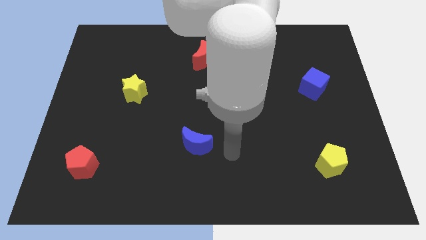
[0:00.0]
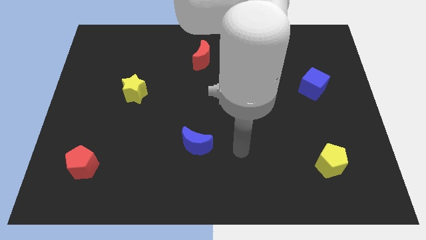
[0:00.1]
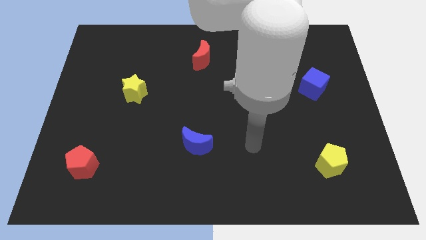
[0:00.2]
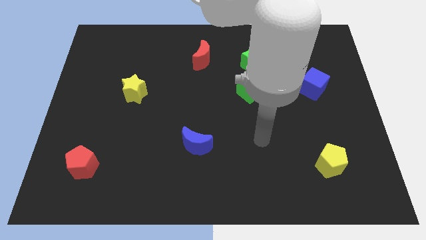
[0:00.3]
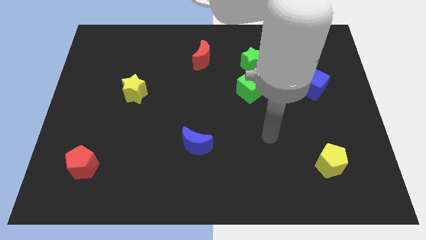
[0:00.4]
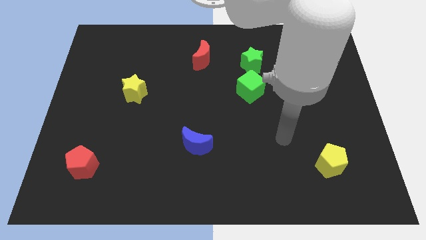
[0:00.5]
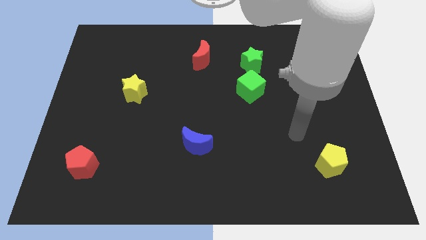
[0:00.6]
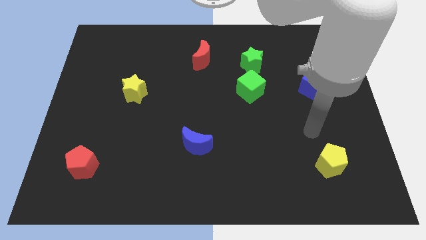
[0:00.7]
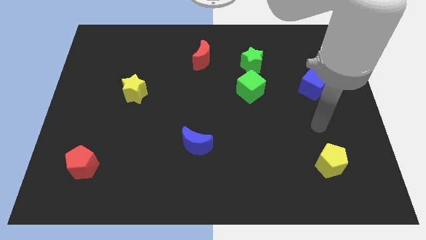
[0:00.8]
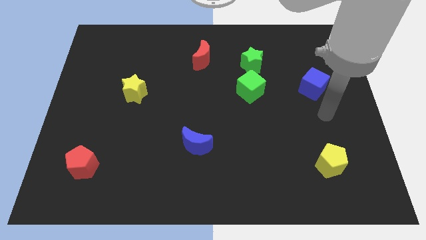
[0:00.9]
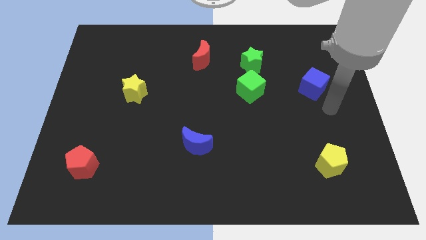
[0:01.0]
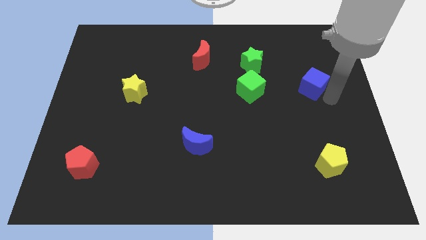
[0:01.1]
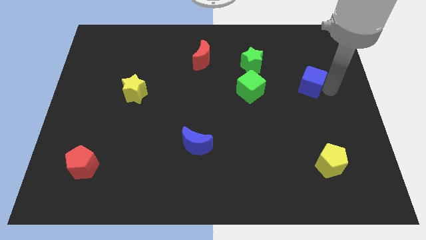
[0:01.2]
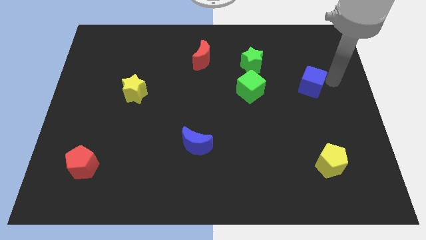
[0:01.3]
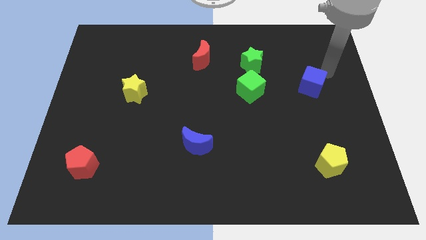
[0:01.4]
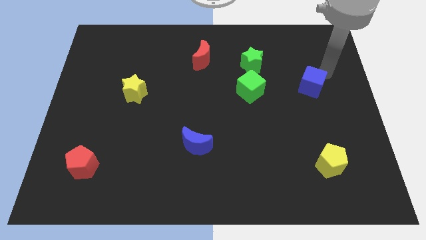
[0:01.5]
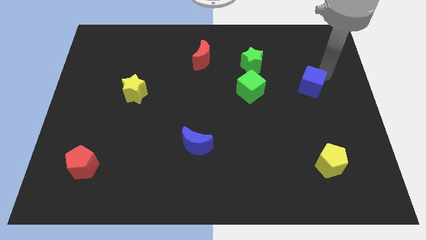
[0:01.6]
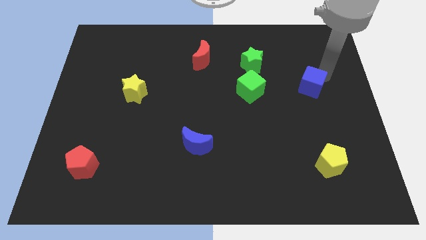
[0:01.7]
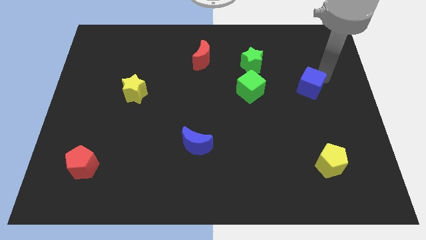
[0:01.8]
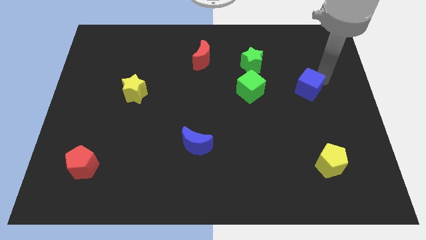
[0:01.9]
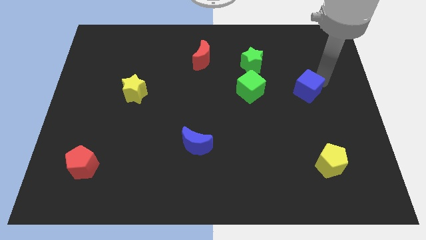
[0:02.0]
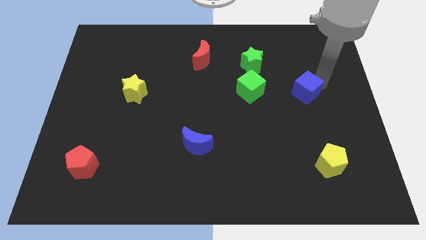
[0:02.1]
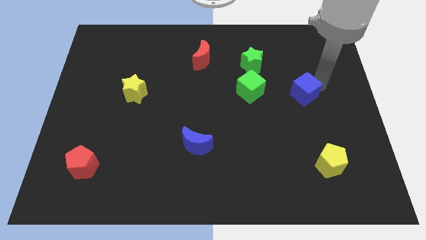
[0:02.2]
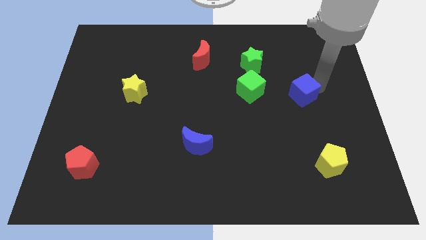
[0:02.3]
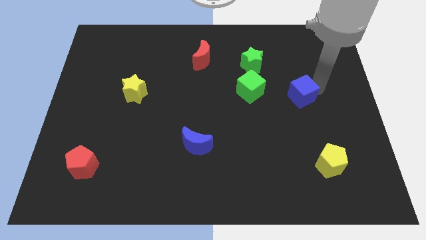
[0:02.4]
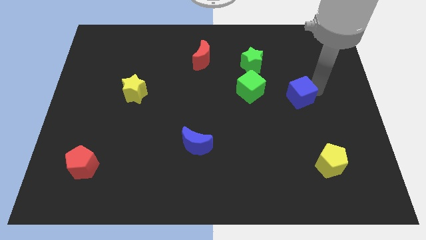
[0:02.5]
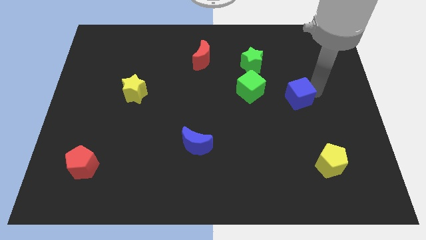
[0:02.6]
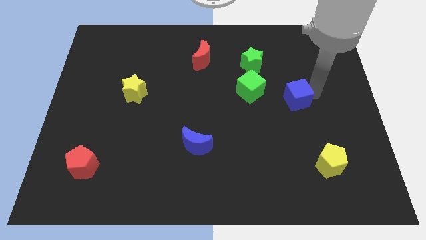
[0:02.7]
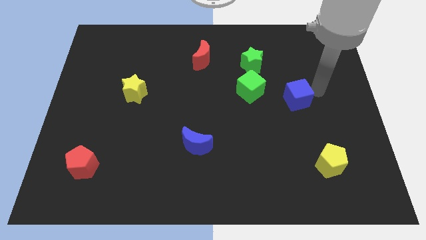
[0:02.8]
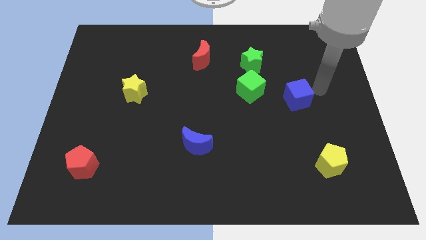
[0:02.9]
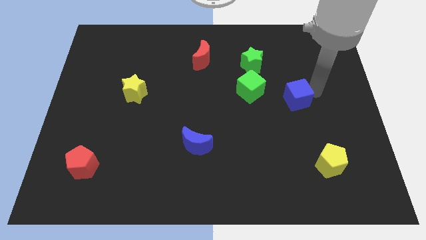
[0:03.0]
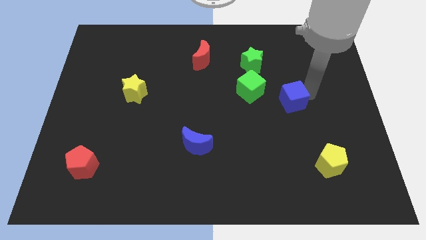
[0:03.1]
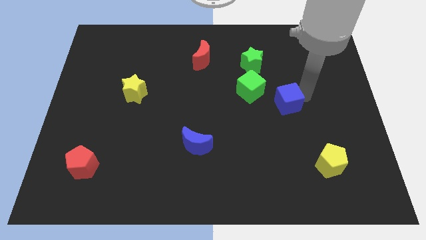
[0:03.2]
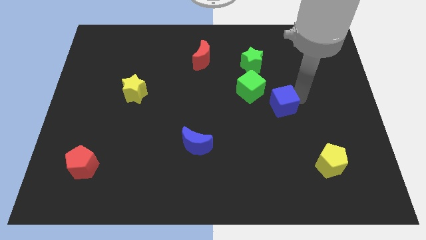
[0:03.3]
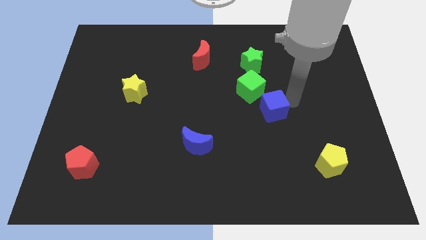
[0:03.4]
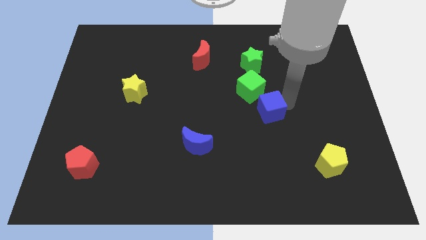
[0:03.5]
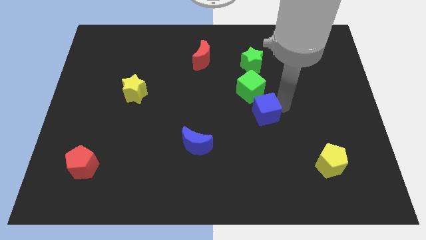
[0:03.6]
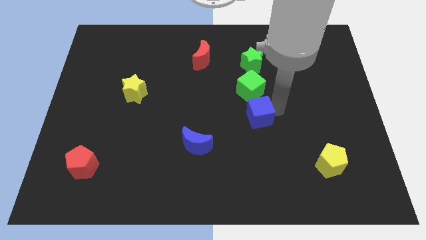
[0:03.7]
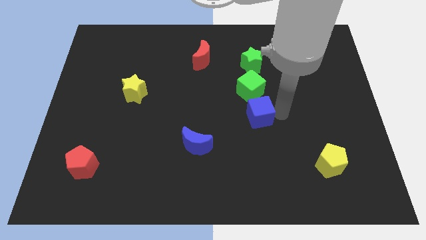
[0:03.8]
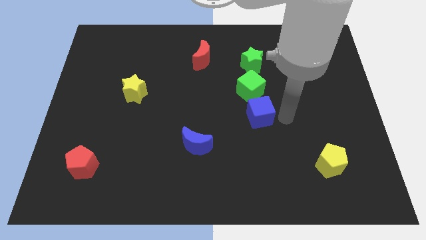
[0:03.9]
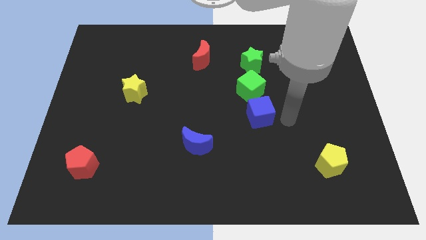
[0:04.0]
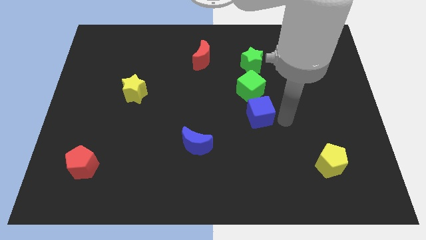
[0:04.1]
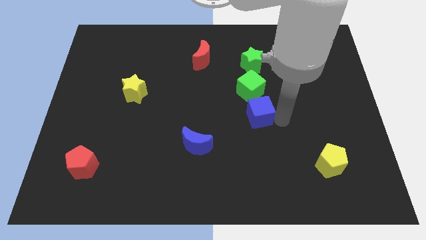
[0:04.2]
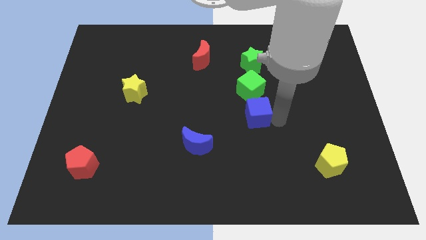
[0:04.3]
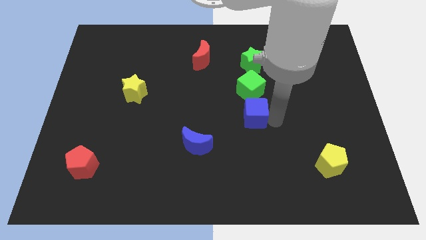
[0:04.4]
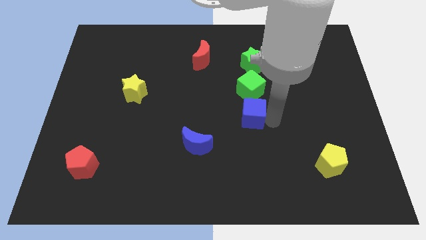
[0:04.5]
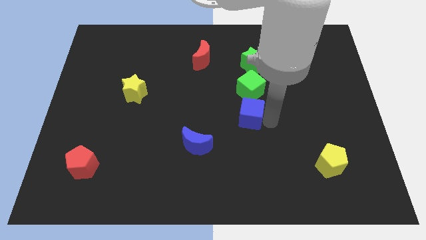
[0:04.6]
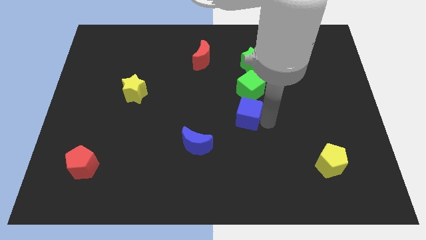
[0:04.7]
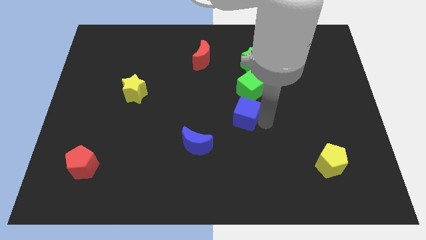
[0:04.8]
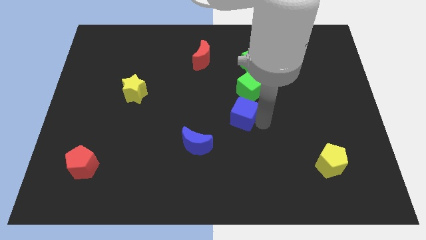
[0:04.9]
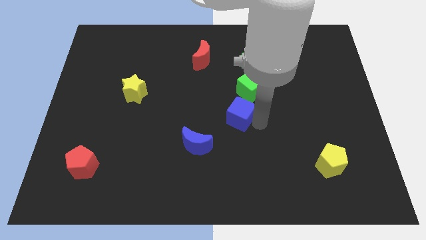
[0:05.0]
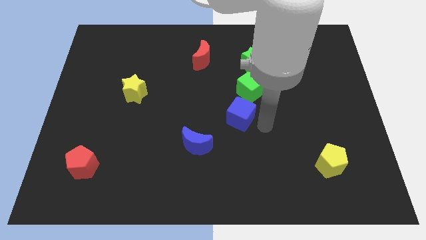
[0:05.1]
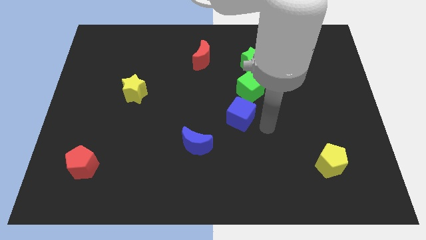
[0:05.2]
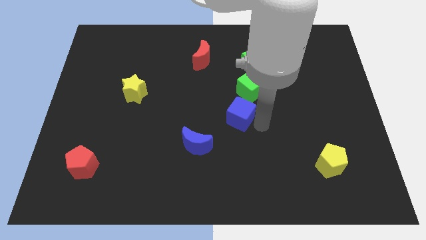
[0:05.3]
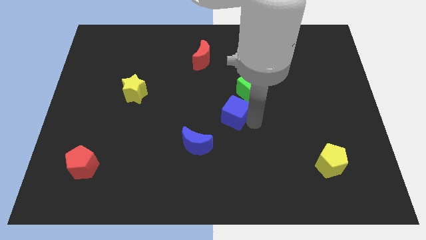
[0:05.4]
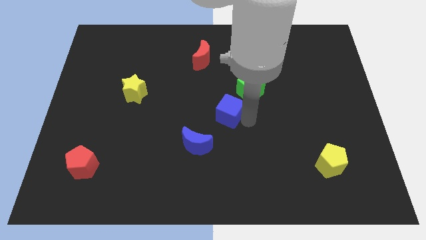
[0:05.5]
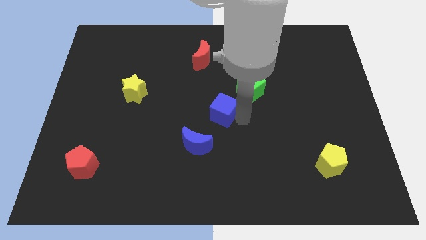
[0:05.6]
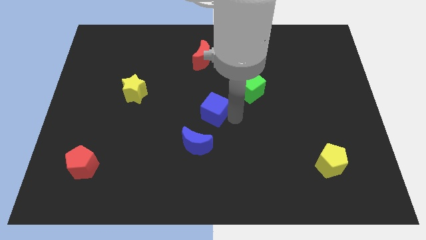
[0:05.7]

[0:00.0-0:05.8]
move the blue cube to the left

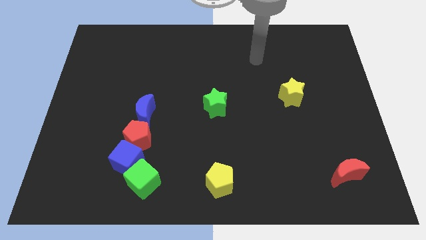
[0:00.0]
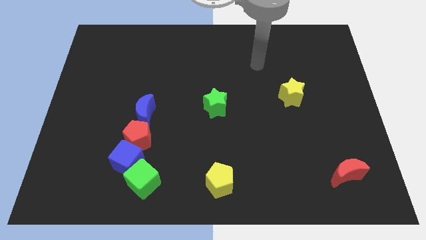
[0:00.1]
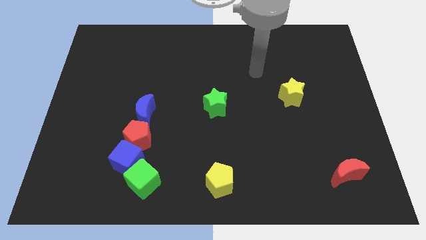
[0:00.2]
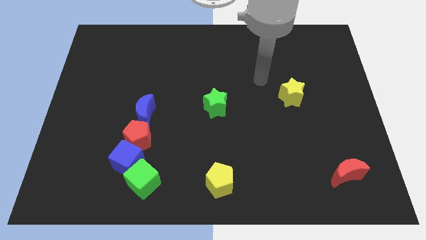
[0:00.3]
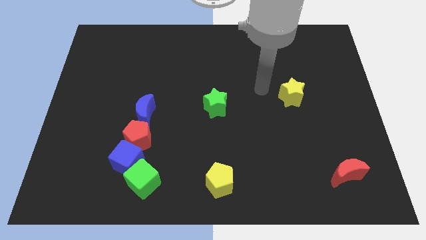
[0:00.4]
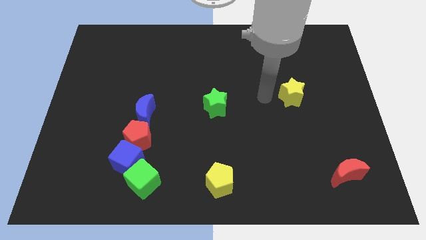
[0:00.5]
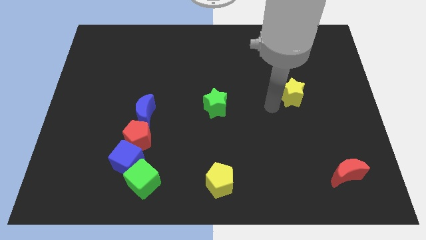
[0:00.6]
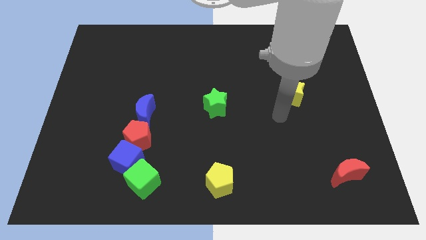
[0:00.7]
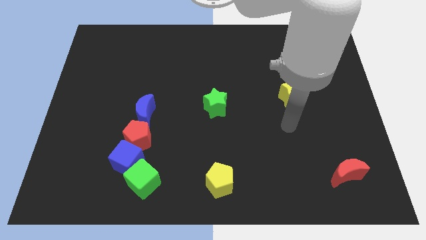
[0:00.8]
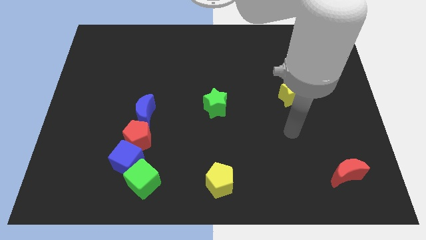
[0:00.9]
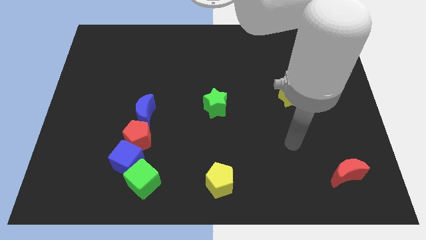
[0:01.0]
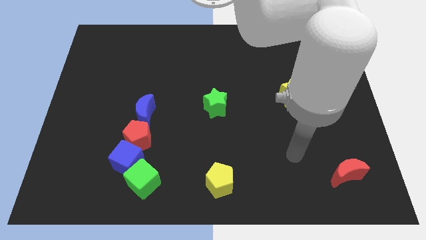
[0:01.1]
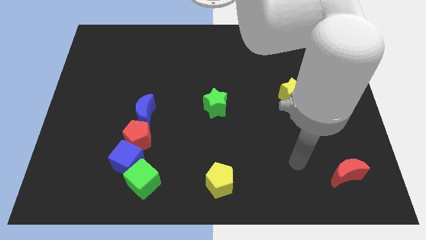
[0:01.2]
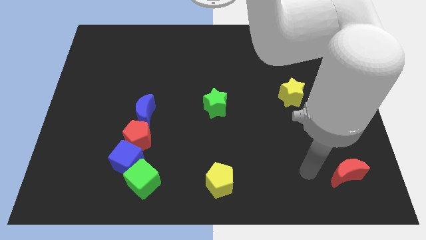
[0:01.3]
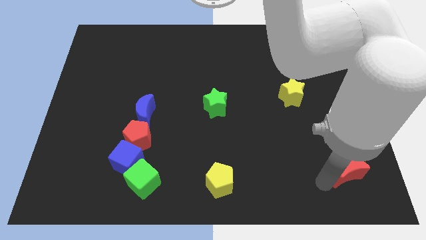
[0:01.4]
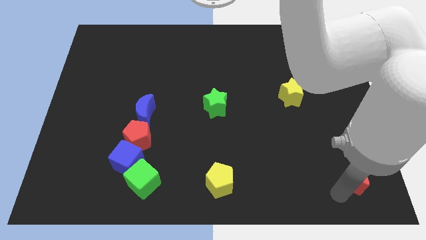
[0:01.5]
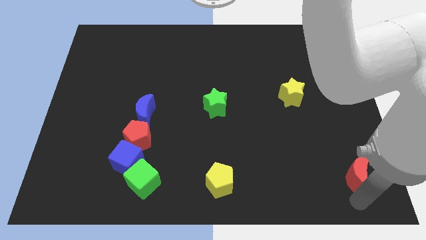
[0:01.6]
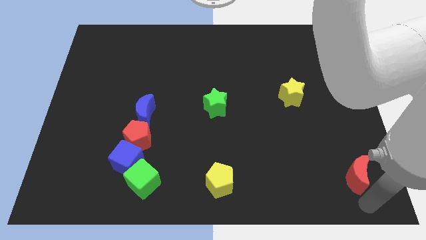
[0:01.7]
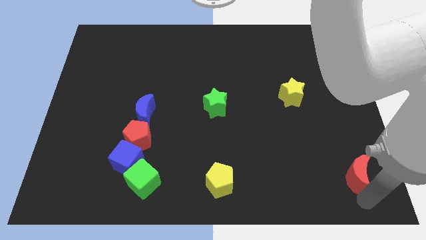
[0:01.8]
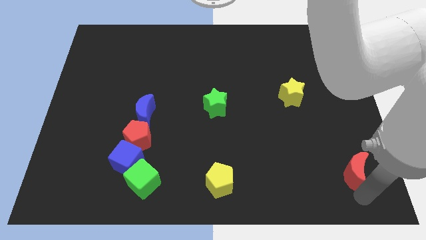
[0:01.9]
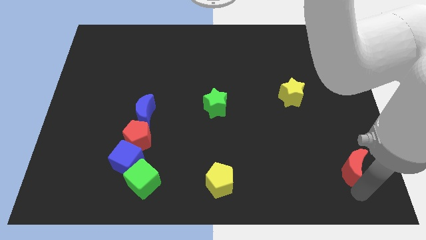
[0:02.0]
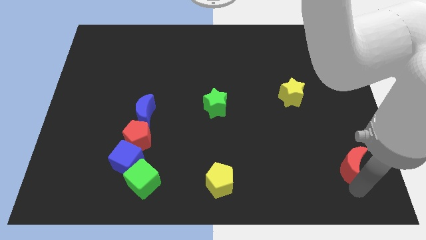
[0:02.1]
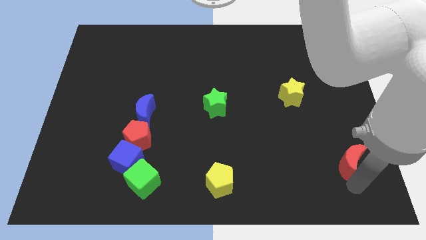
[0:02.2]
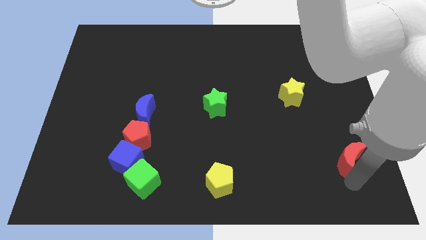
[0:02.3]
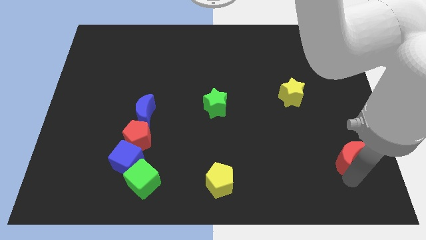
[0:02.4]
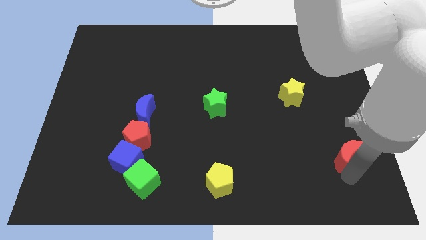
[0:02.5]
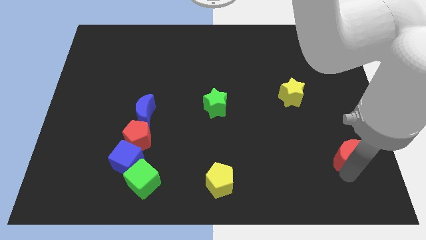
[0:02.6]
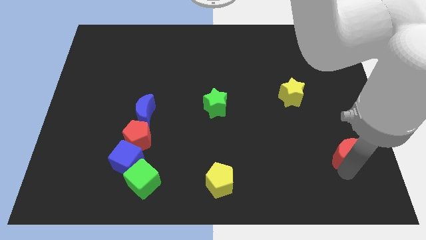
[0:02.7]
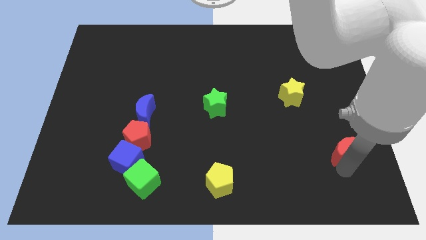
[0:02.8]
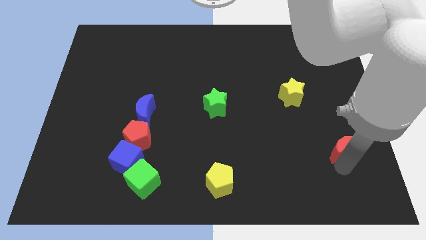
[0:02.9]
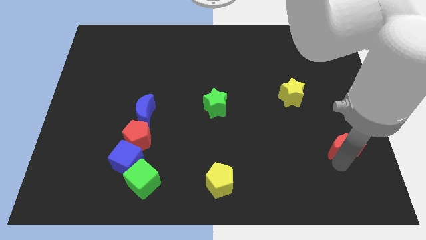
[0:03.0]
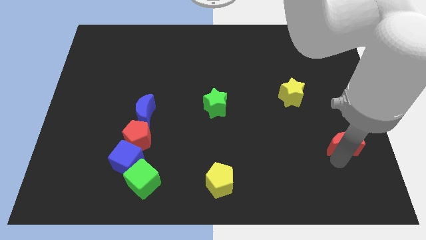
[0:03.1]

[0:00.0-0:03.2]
move the red moon a little bit up
